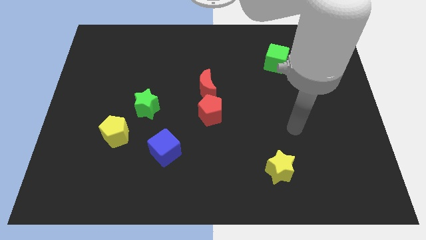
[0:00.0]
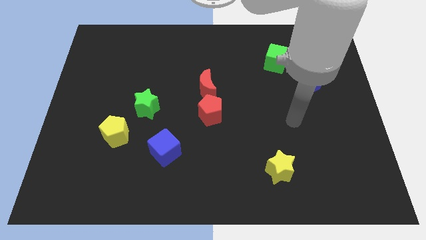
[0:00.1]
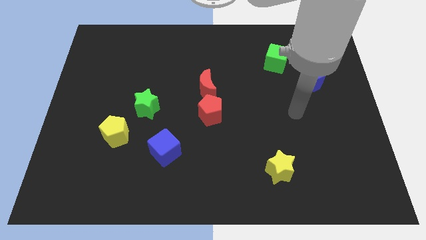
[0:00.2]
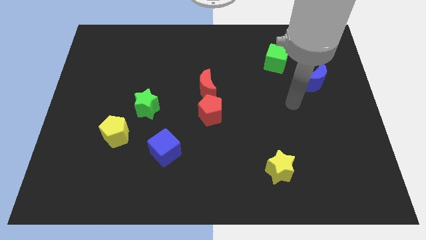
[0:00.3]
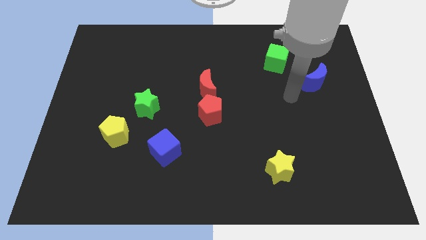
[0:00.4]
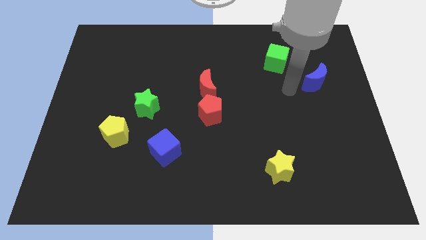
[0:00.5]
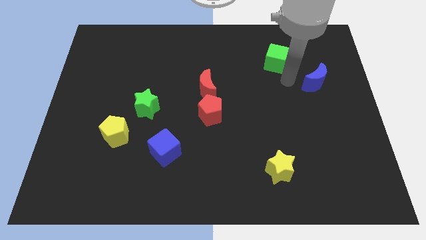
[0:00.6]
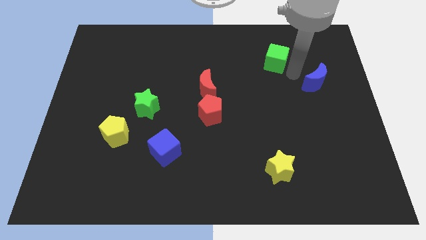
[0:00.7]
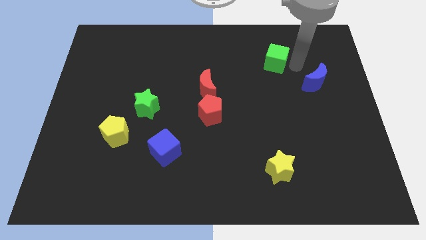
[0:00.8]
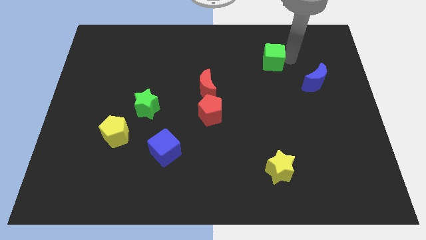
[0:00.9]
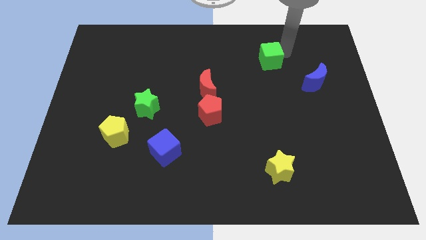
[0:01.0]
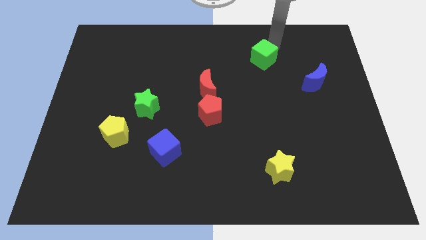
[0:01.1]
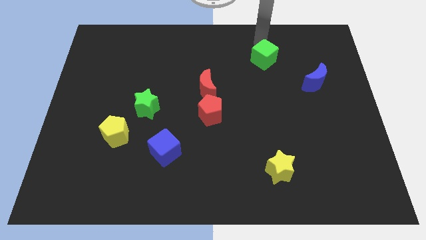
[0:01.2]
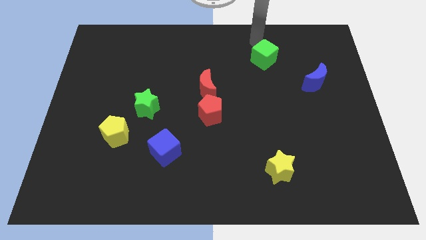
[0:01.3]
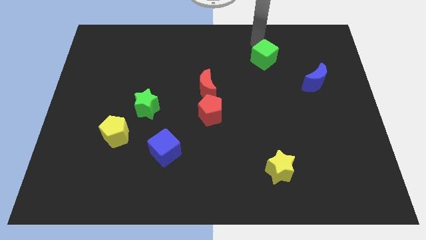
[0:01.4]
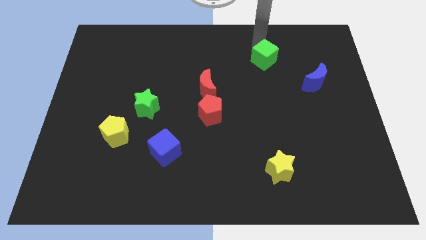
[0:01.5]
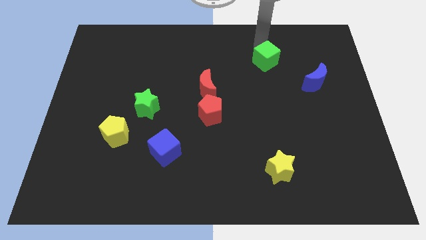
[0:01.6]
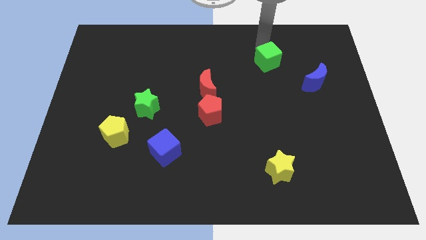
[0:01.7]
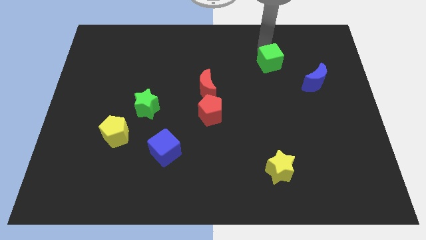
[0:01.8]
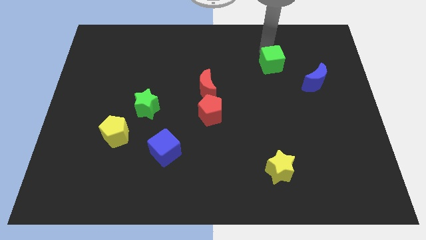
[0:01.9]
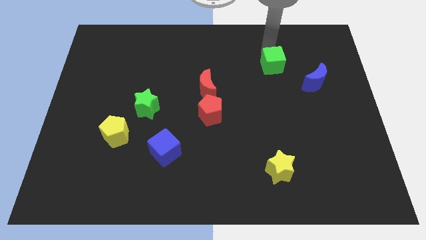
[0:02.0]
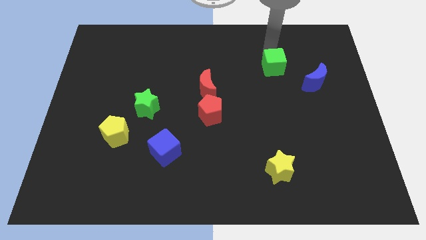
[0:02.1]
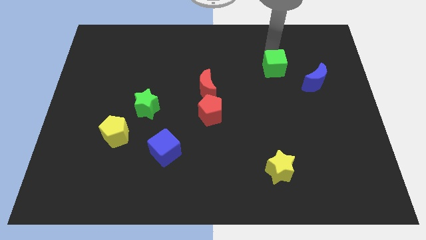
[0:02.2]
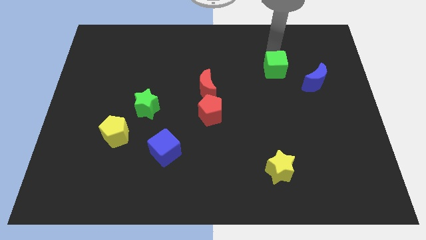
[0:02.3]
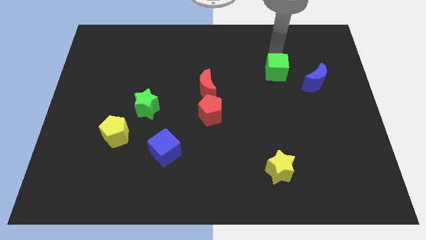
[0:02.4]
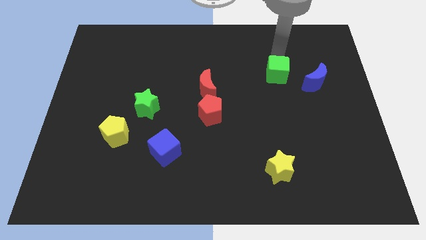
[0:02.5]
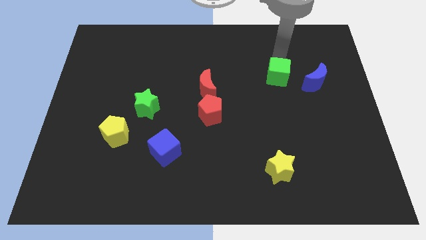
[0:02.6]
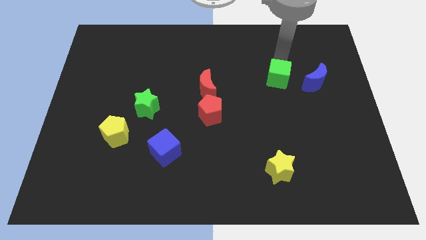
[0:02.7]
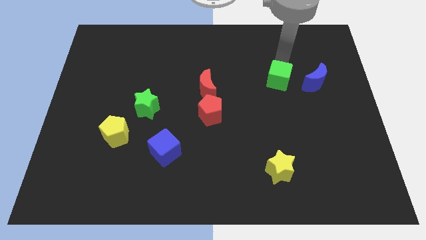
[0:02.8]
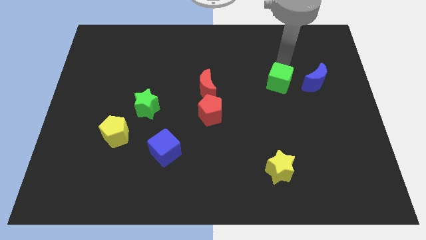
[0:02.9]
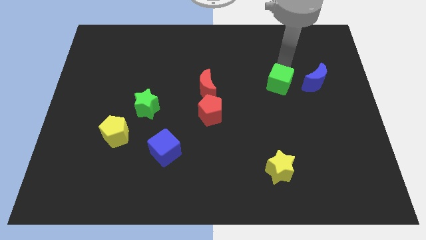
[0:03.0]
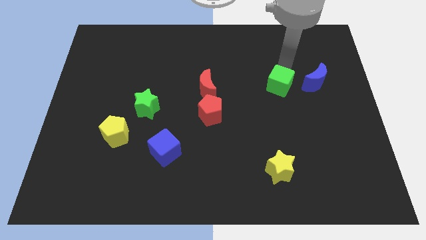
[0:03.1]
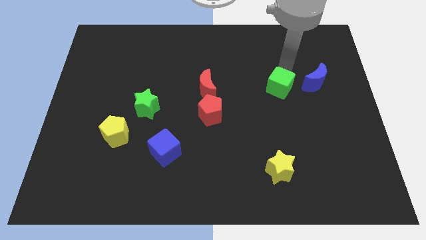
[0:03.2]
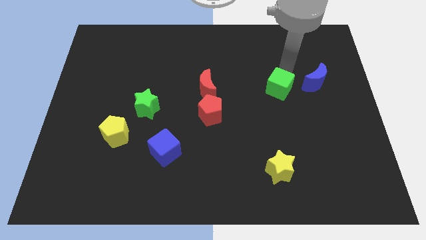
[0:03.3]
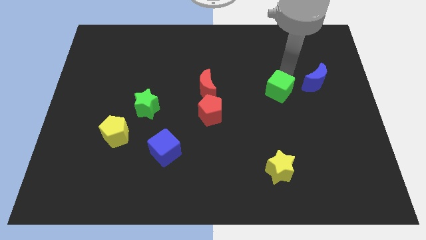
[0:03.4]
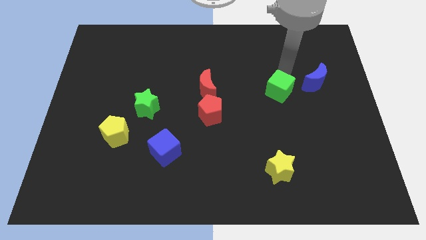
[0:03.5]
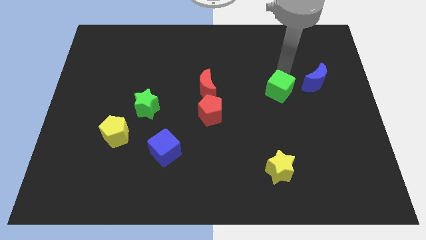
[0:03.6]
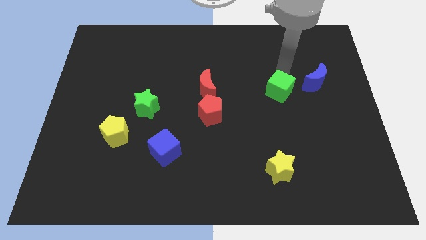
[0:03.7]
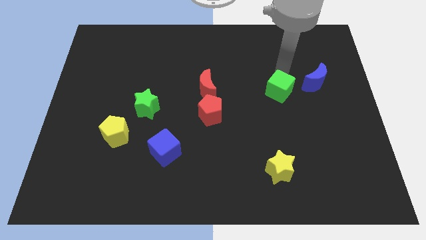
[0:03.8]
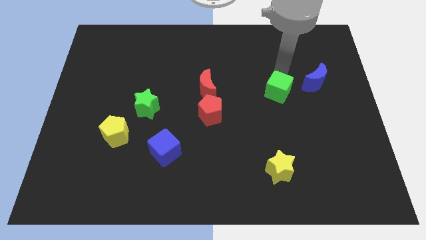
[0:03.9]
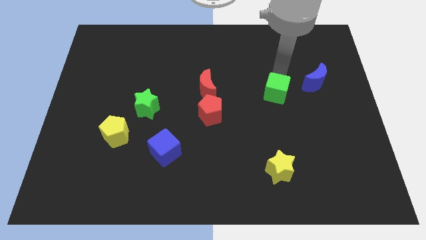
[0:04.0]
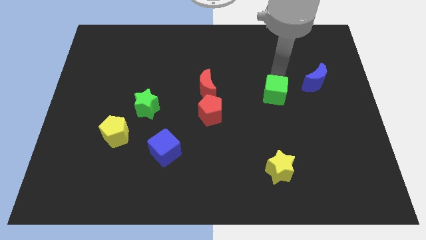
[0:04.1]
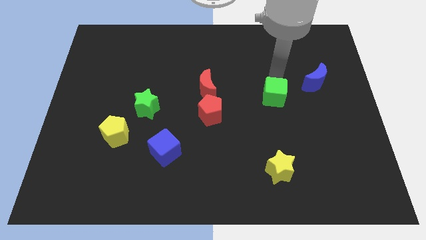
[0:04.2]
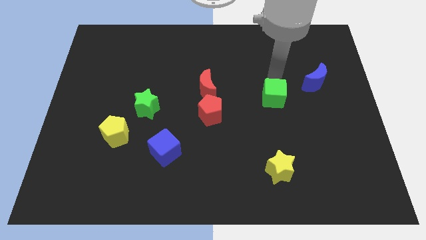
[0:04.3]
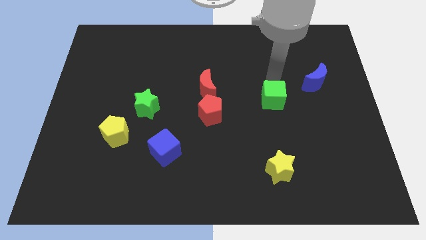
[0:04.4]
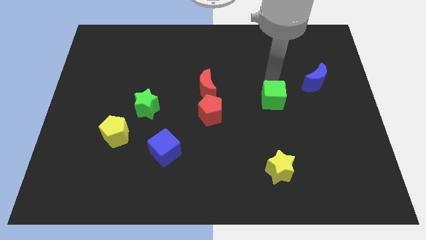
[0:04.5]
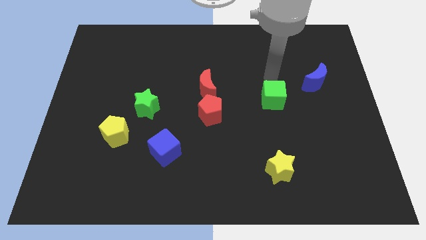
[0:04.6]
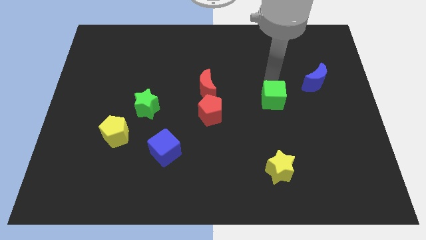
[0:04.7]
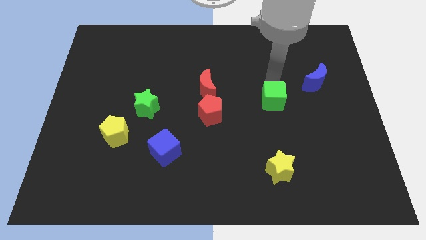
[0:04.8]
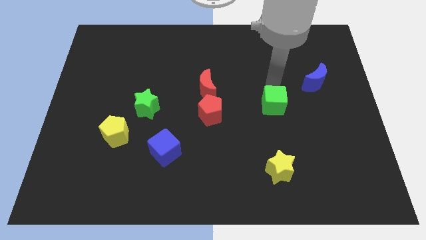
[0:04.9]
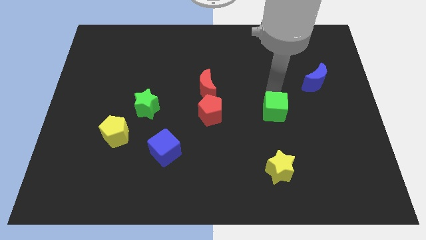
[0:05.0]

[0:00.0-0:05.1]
put the green cube above the yellow star

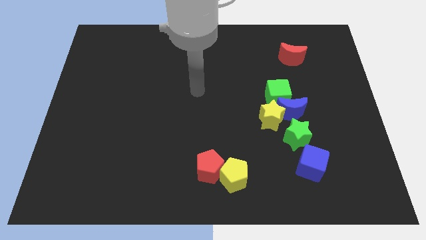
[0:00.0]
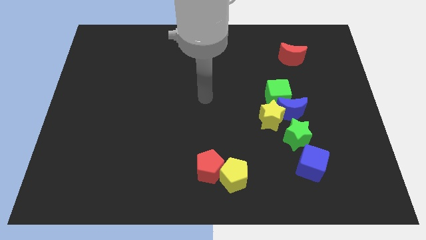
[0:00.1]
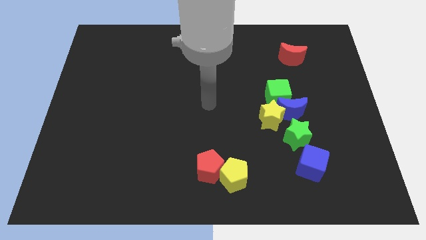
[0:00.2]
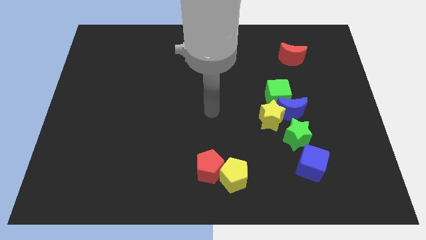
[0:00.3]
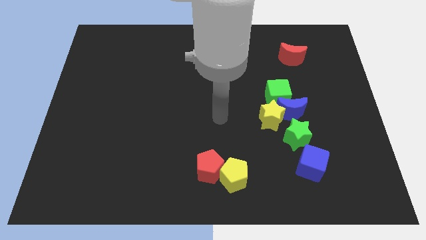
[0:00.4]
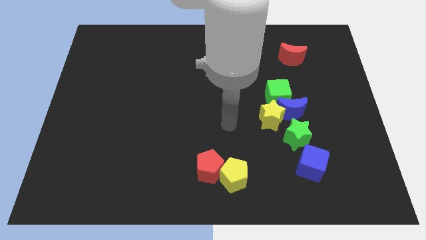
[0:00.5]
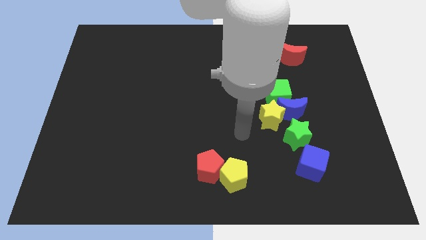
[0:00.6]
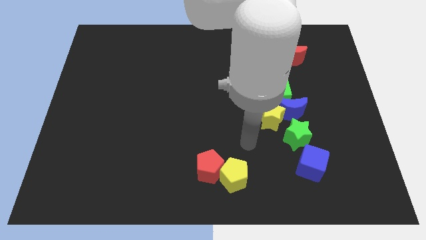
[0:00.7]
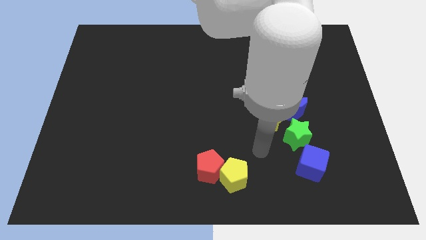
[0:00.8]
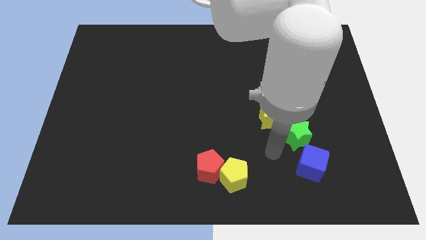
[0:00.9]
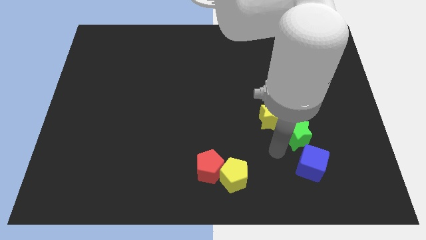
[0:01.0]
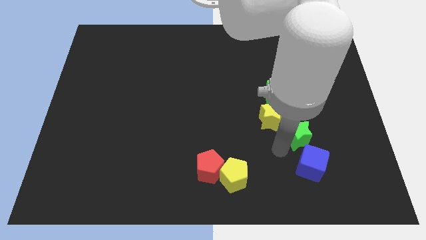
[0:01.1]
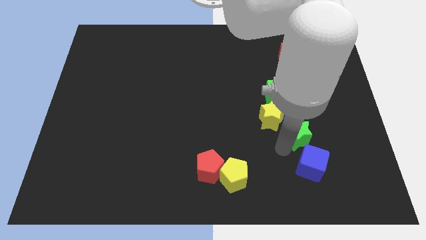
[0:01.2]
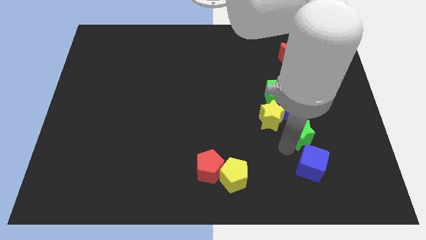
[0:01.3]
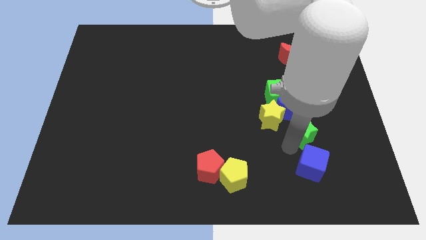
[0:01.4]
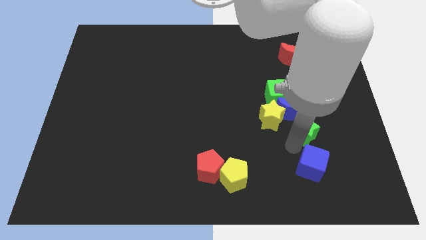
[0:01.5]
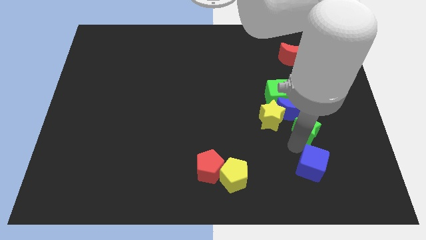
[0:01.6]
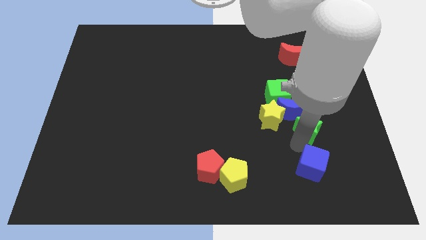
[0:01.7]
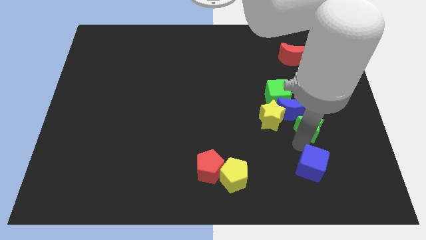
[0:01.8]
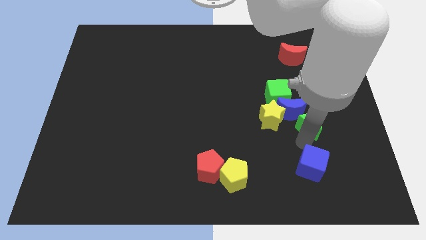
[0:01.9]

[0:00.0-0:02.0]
put the green star just right of the blue moon

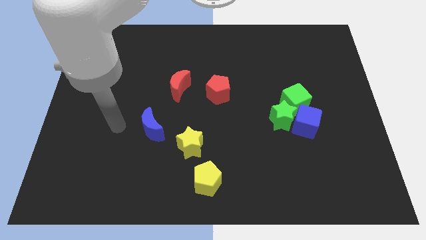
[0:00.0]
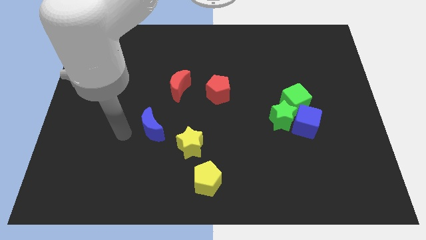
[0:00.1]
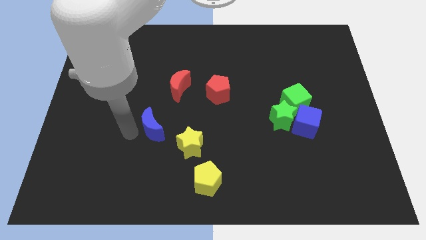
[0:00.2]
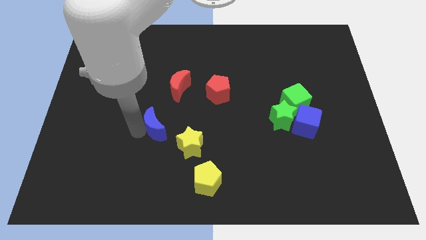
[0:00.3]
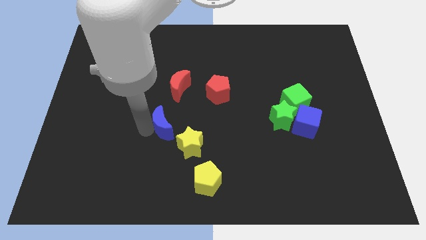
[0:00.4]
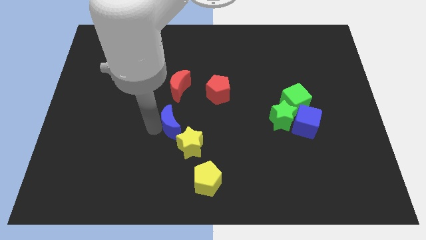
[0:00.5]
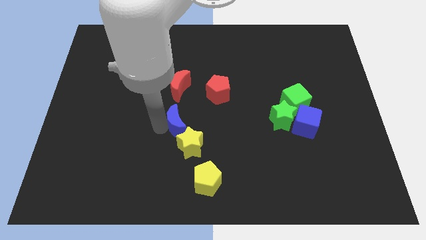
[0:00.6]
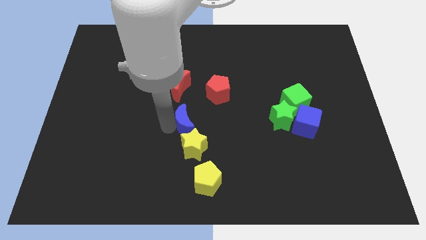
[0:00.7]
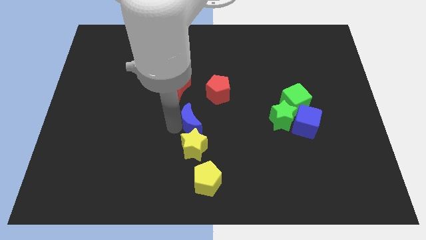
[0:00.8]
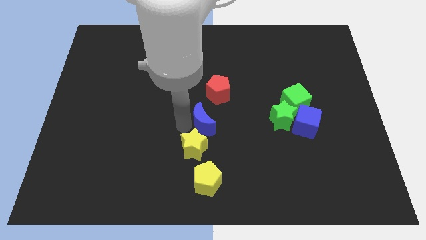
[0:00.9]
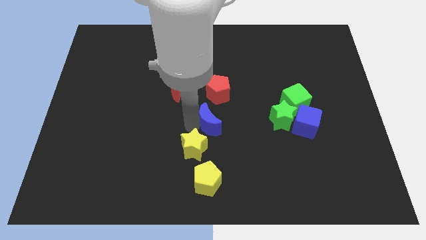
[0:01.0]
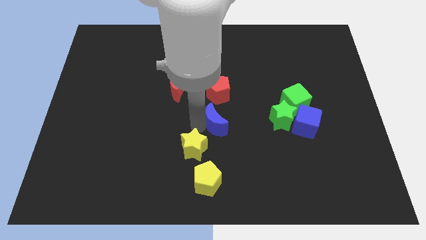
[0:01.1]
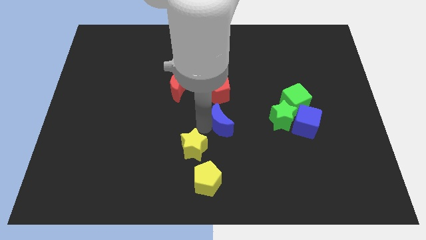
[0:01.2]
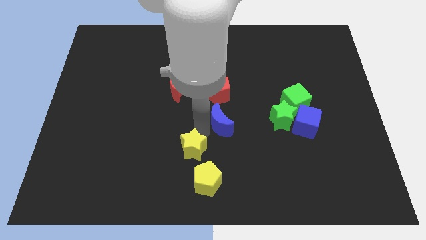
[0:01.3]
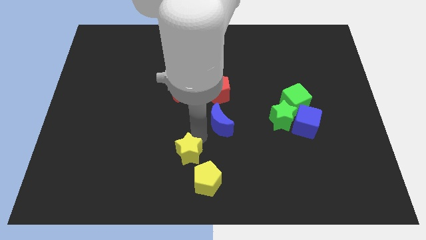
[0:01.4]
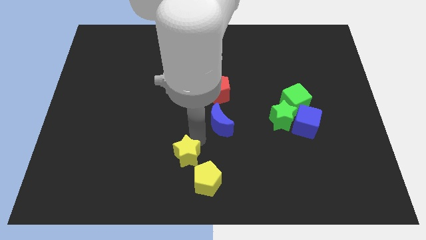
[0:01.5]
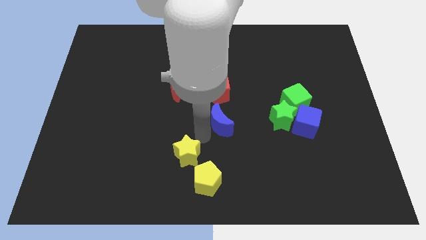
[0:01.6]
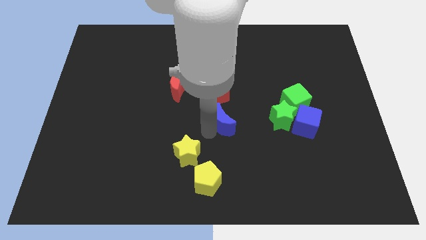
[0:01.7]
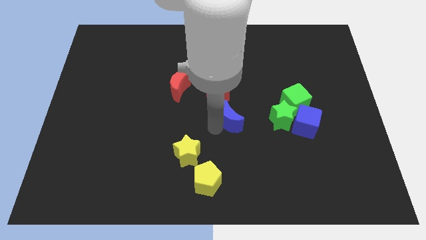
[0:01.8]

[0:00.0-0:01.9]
push the blue moon diagonally down and to the right of the red pentagon
